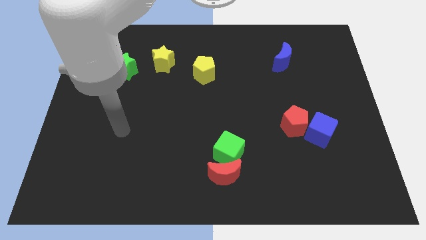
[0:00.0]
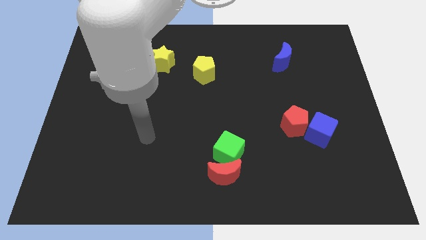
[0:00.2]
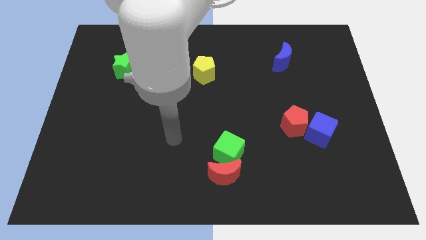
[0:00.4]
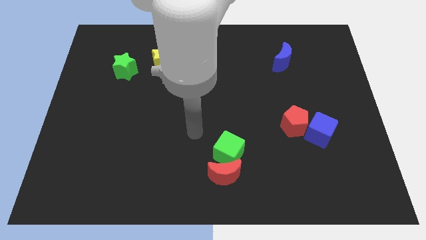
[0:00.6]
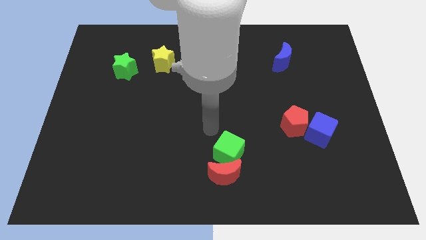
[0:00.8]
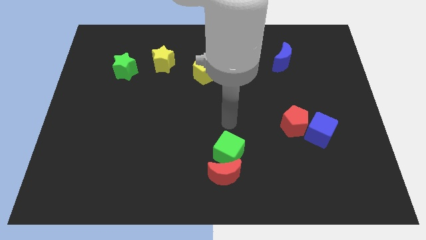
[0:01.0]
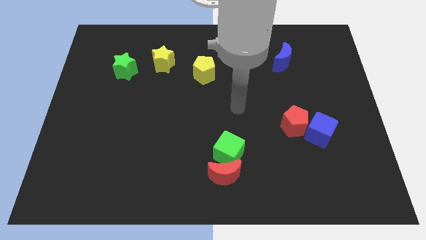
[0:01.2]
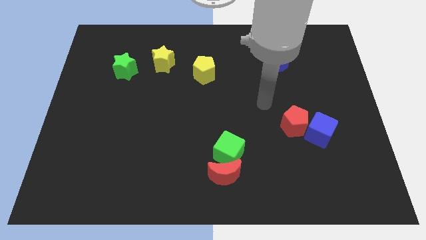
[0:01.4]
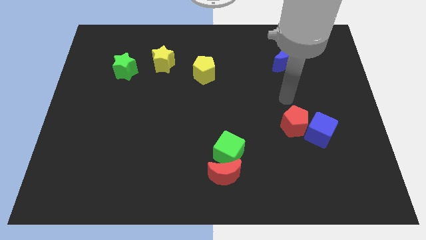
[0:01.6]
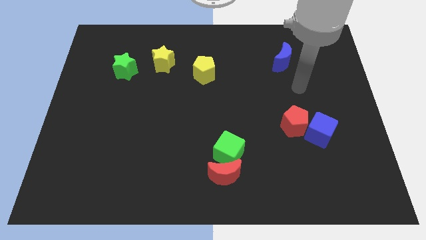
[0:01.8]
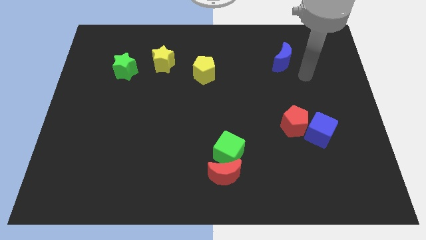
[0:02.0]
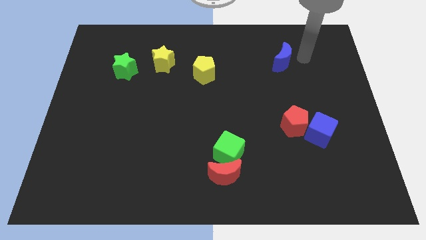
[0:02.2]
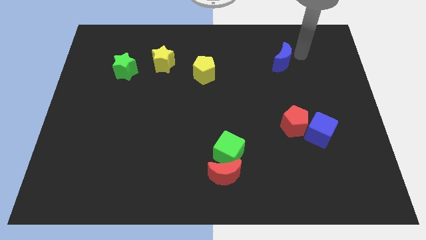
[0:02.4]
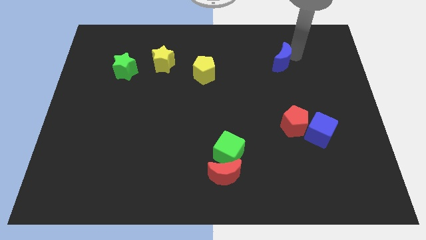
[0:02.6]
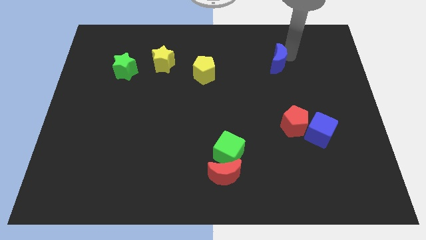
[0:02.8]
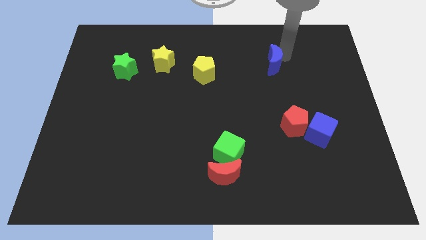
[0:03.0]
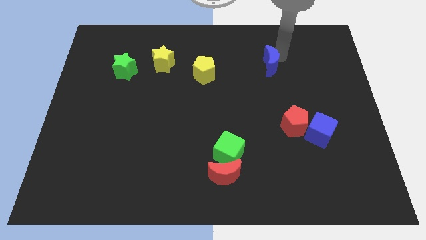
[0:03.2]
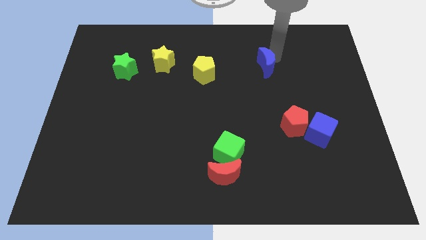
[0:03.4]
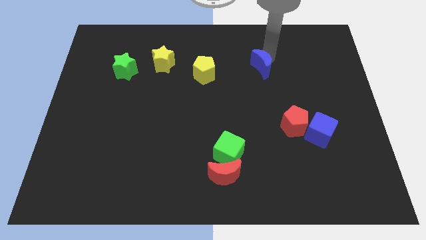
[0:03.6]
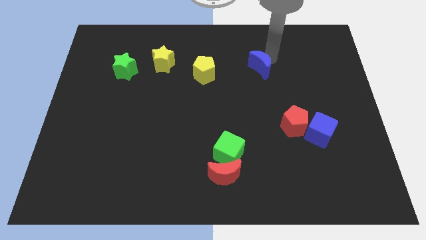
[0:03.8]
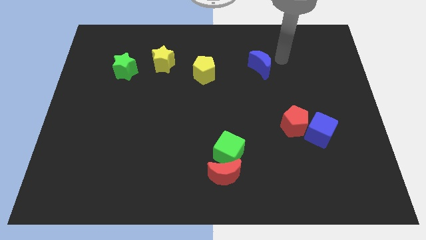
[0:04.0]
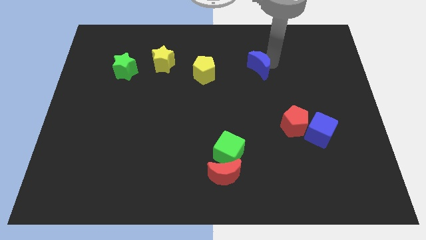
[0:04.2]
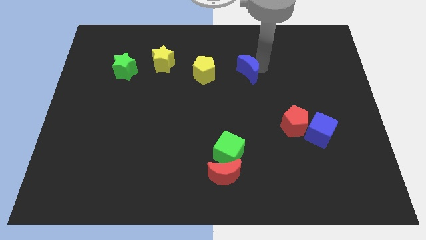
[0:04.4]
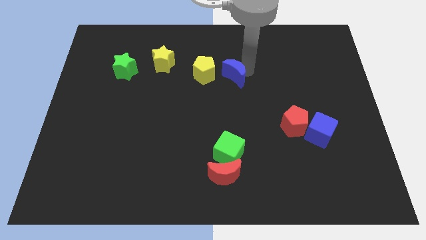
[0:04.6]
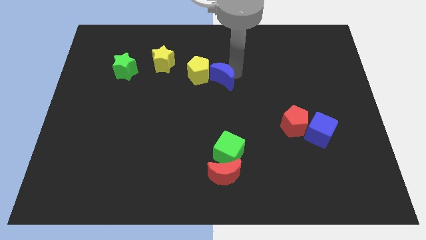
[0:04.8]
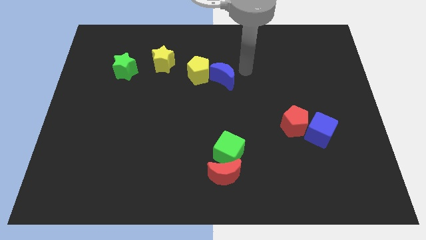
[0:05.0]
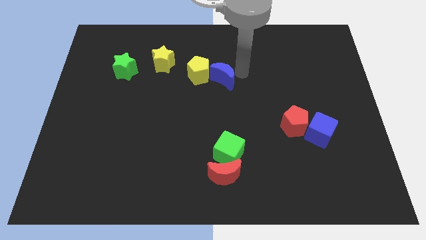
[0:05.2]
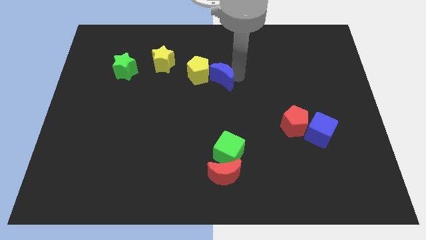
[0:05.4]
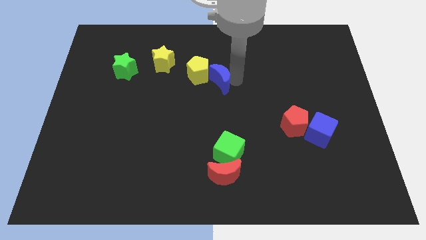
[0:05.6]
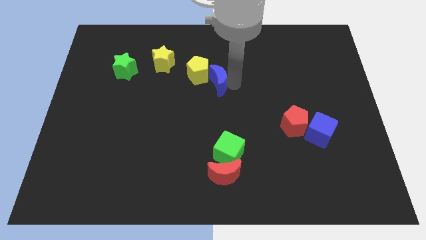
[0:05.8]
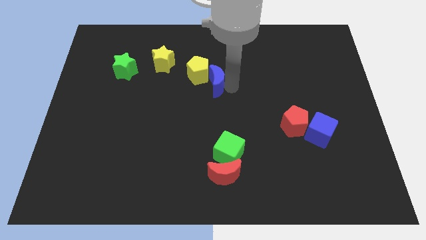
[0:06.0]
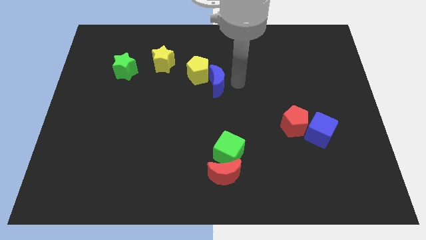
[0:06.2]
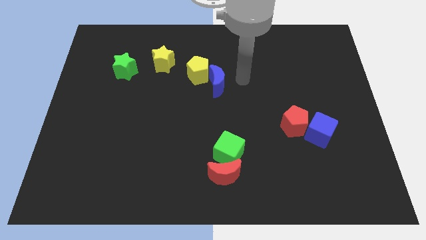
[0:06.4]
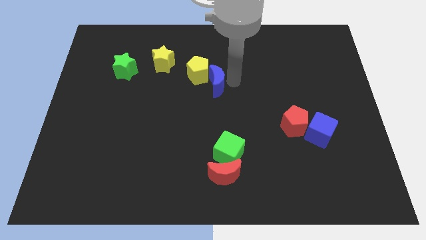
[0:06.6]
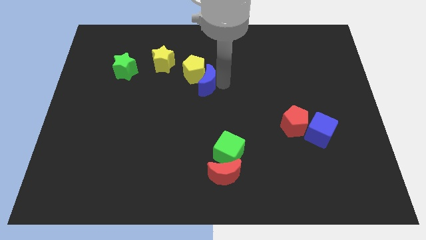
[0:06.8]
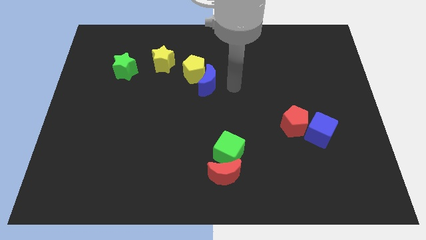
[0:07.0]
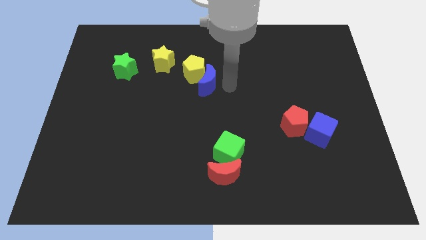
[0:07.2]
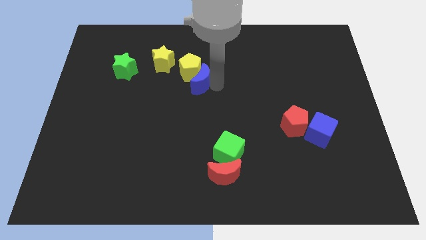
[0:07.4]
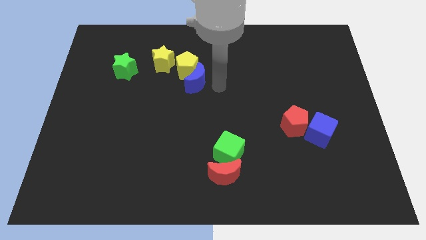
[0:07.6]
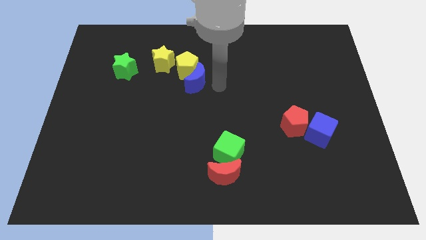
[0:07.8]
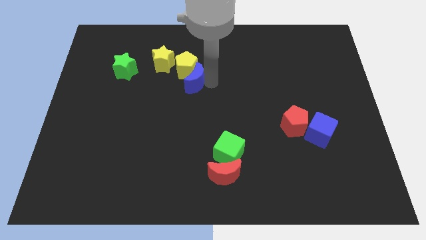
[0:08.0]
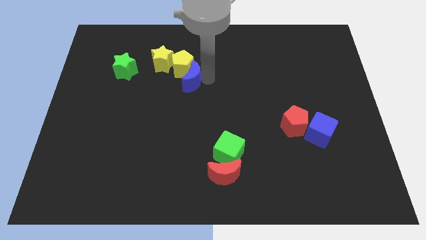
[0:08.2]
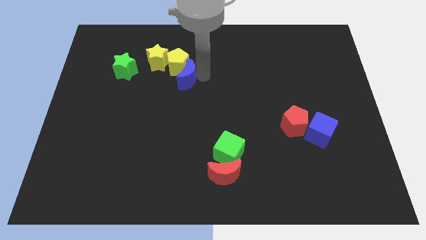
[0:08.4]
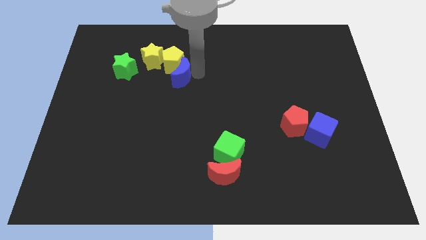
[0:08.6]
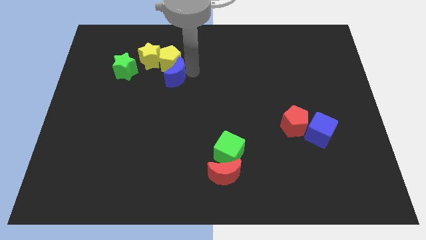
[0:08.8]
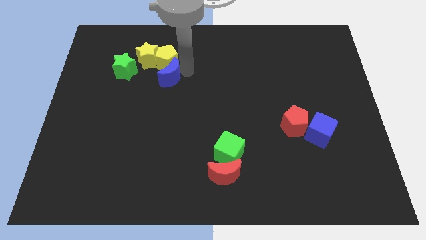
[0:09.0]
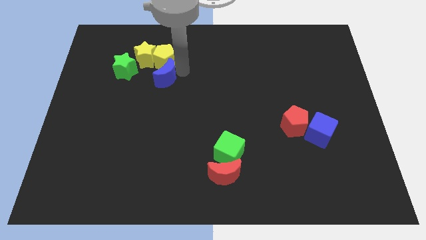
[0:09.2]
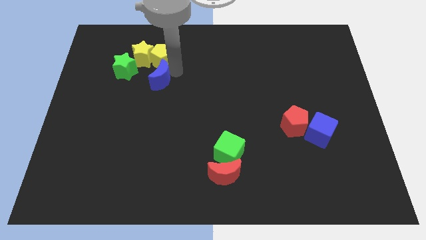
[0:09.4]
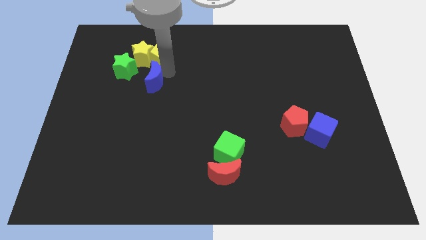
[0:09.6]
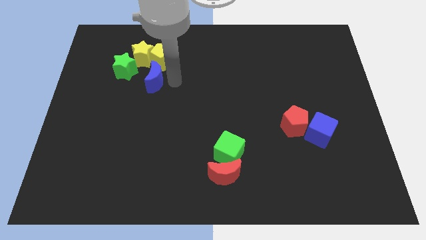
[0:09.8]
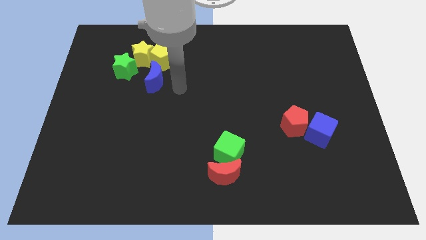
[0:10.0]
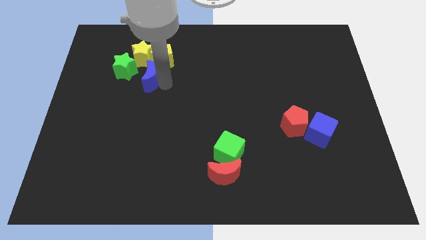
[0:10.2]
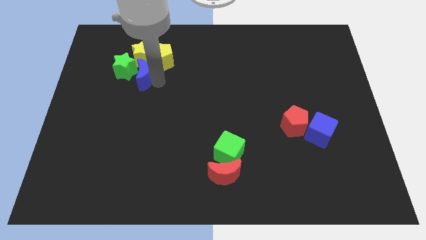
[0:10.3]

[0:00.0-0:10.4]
put the blue moon close to the green star

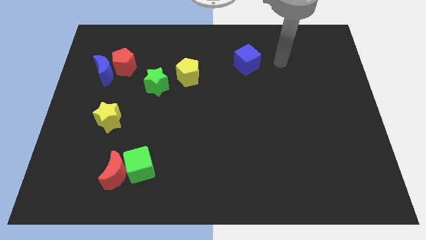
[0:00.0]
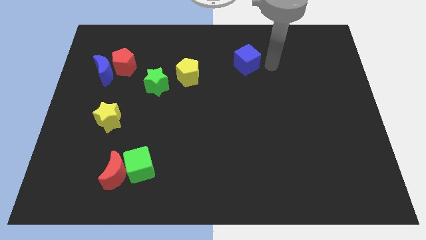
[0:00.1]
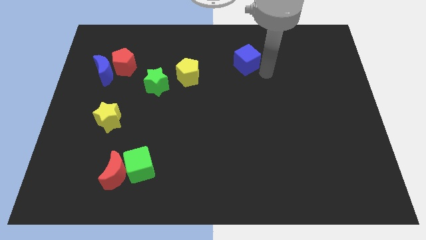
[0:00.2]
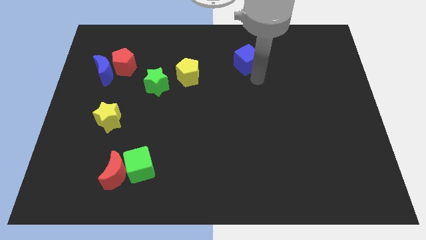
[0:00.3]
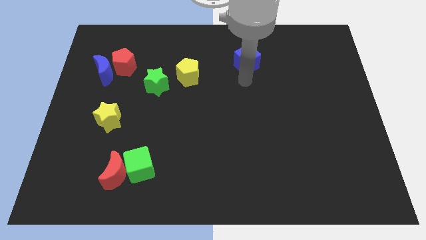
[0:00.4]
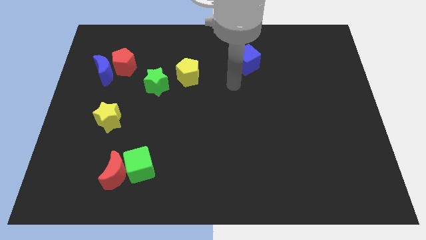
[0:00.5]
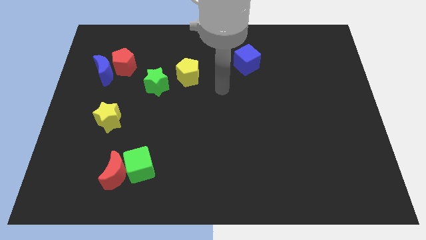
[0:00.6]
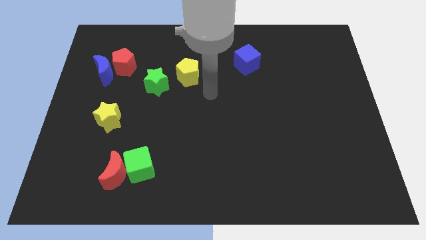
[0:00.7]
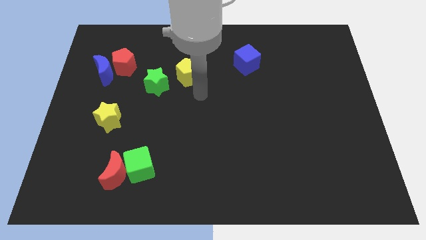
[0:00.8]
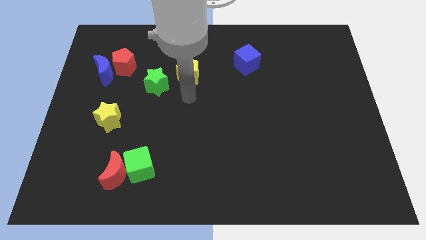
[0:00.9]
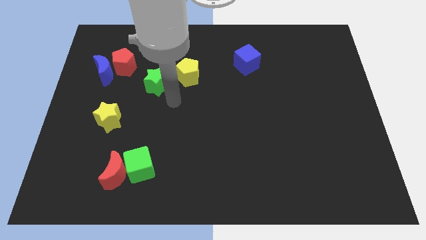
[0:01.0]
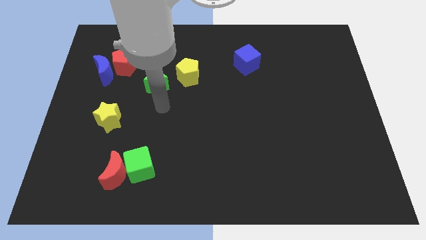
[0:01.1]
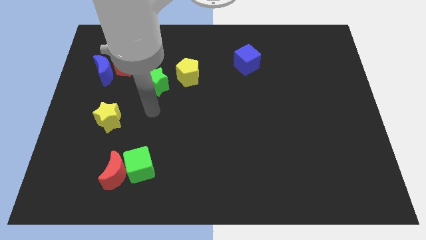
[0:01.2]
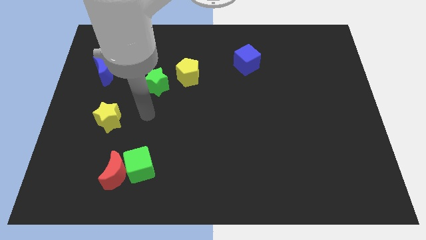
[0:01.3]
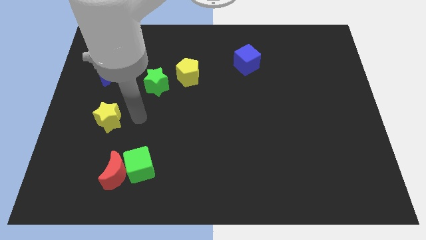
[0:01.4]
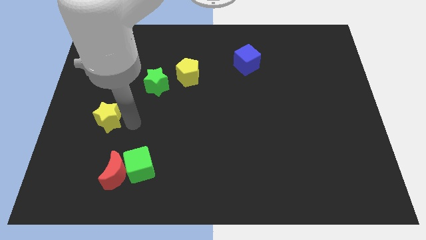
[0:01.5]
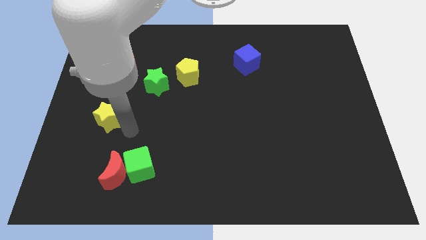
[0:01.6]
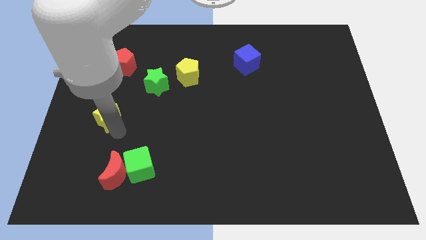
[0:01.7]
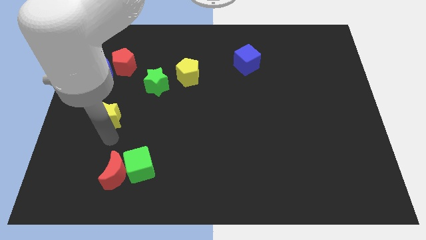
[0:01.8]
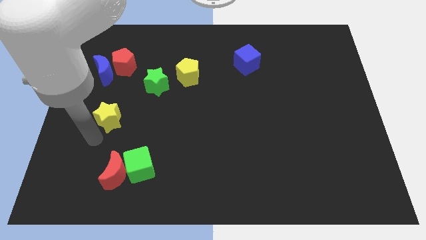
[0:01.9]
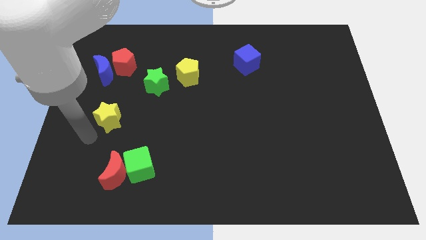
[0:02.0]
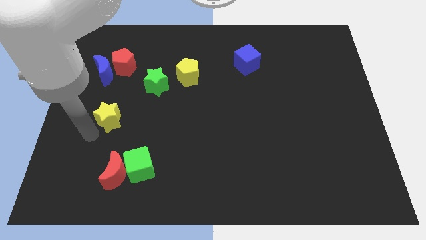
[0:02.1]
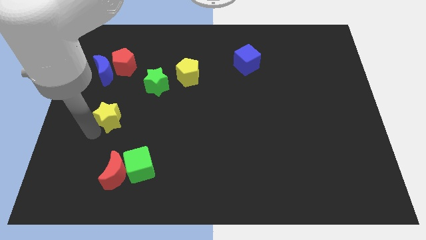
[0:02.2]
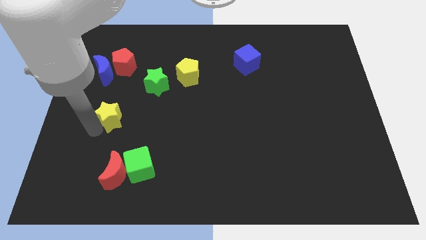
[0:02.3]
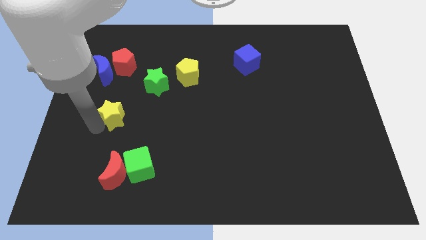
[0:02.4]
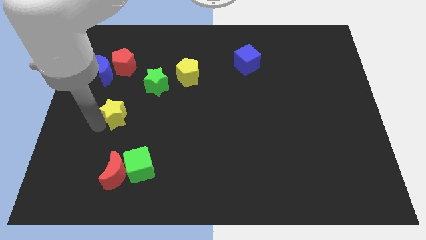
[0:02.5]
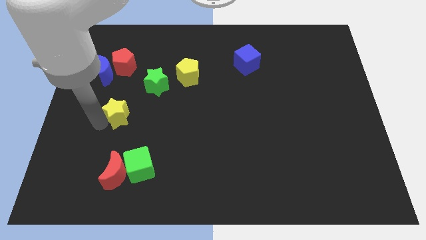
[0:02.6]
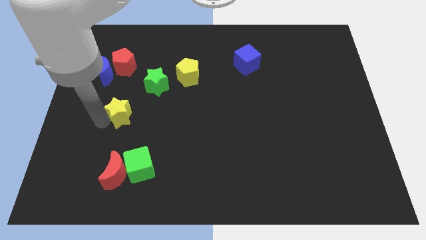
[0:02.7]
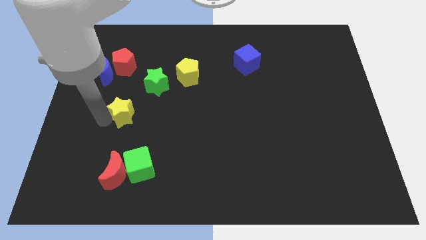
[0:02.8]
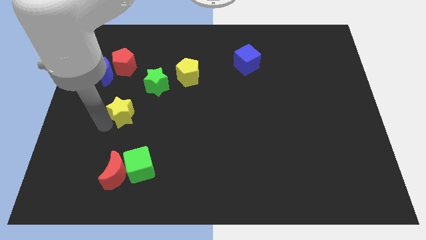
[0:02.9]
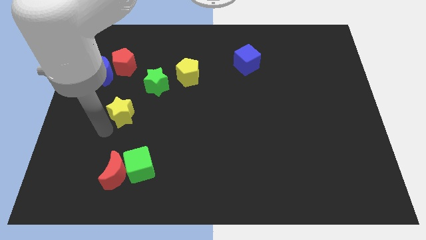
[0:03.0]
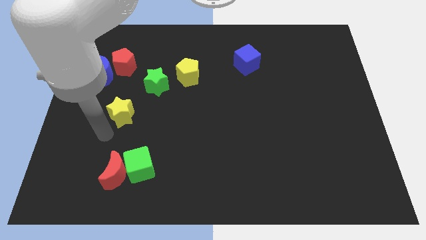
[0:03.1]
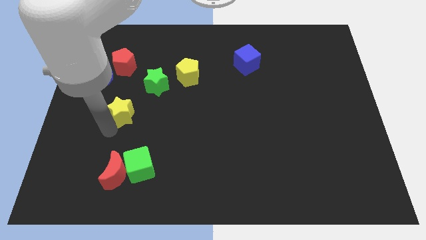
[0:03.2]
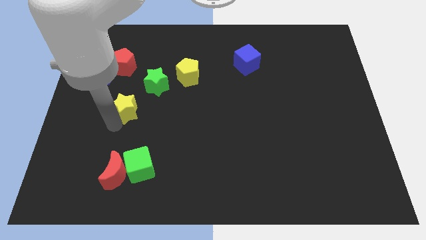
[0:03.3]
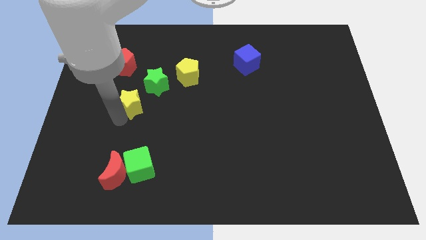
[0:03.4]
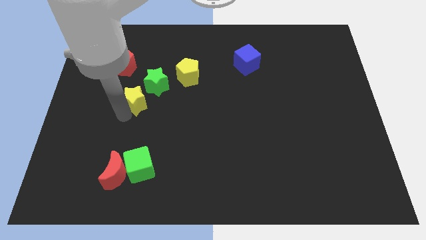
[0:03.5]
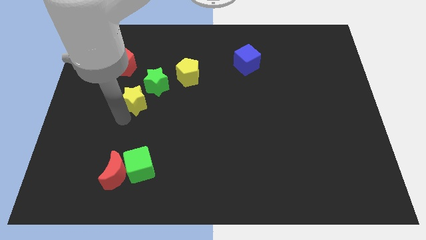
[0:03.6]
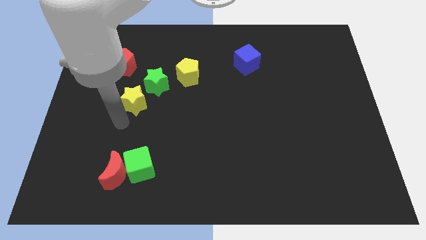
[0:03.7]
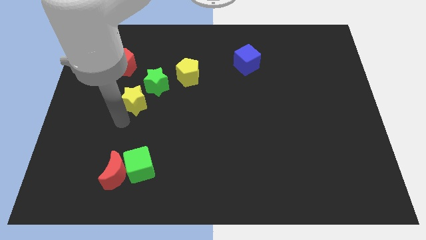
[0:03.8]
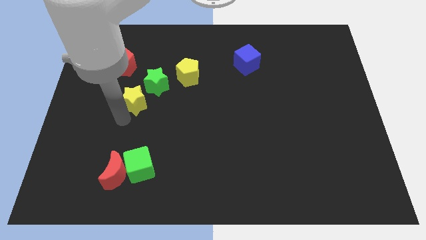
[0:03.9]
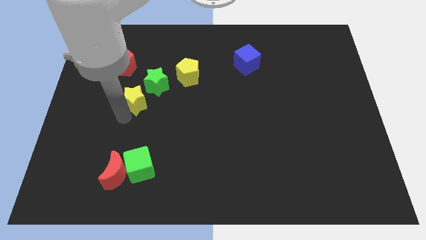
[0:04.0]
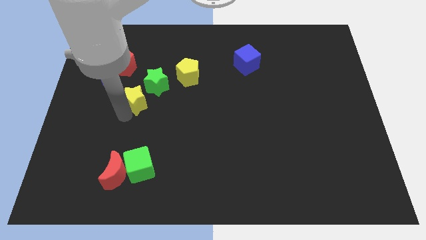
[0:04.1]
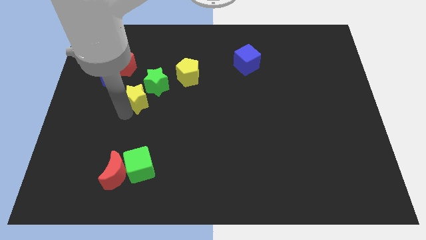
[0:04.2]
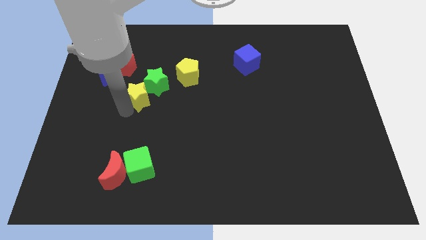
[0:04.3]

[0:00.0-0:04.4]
slide the yellow star close to the green star
